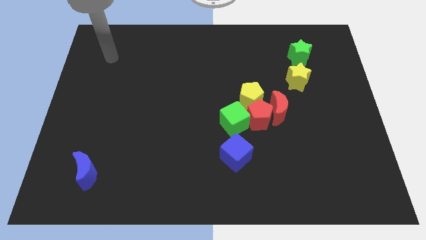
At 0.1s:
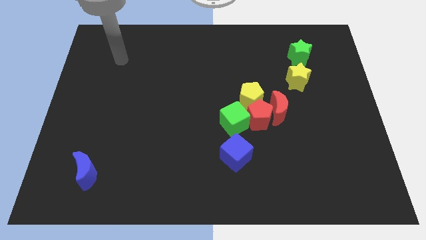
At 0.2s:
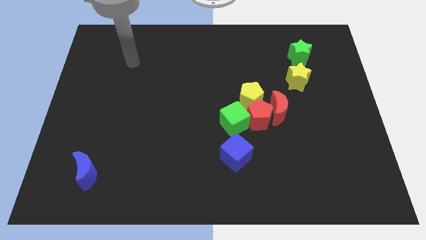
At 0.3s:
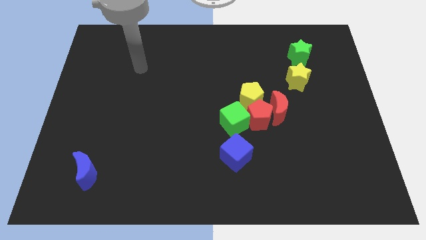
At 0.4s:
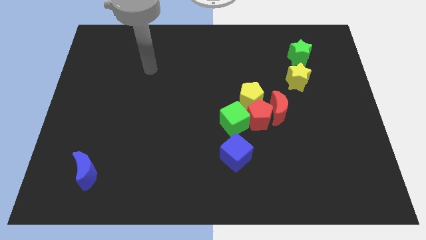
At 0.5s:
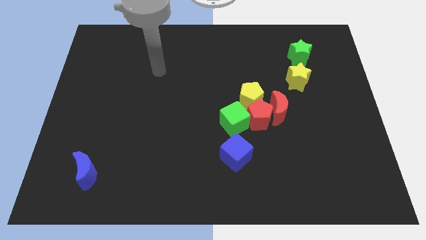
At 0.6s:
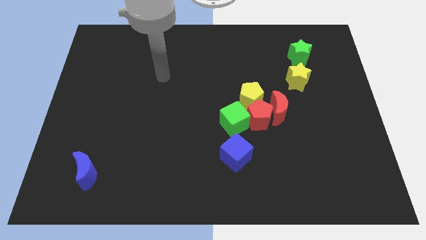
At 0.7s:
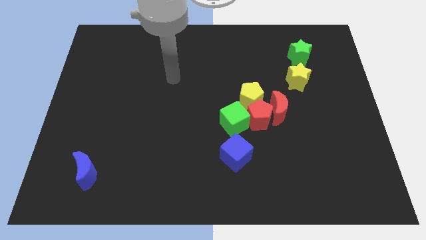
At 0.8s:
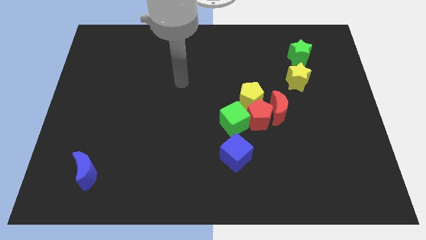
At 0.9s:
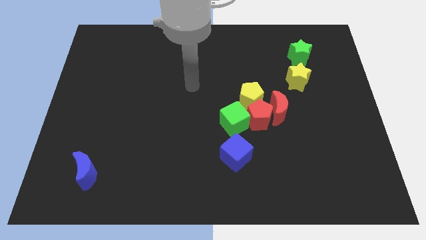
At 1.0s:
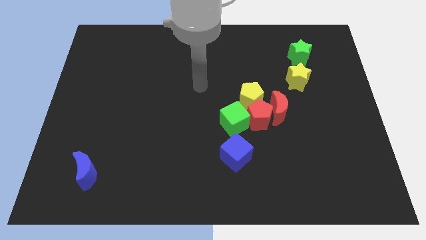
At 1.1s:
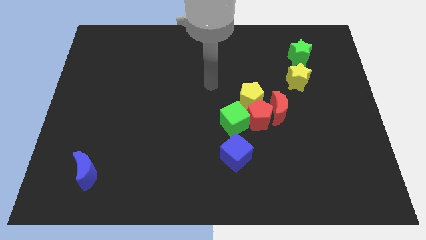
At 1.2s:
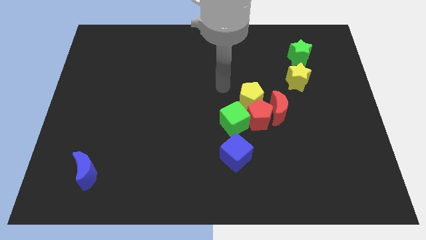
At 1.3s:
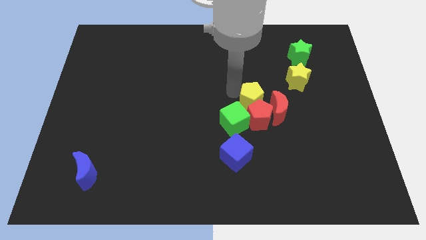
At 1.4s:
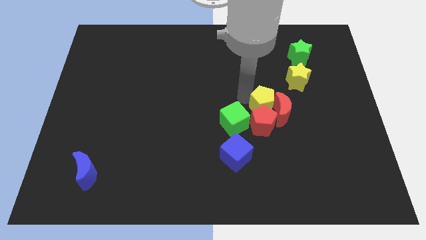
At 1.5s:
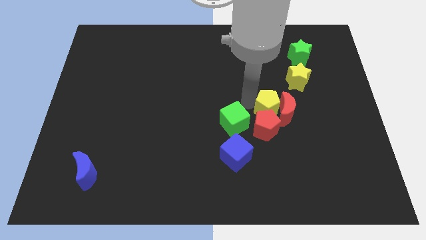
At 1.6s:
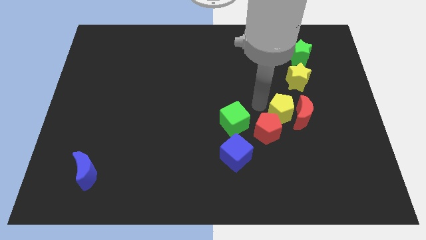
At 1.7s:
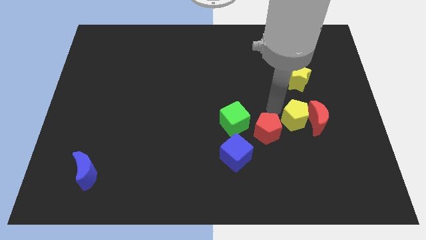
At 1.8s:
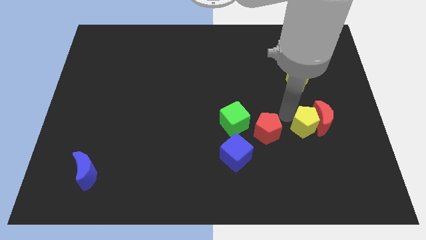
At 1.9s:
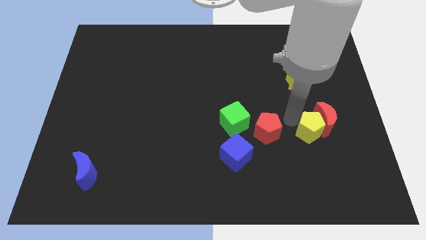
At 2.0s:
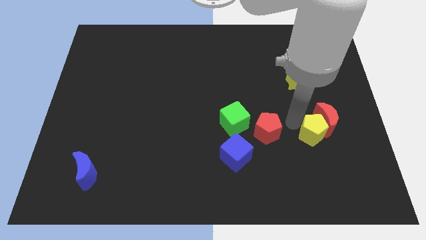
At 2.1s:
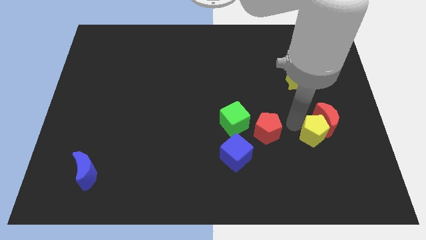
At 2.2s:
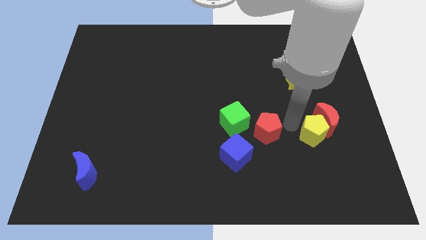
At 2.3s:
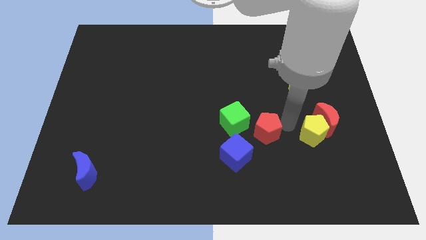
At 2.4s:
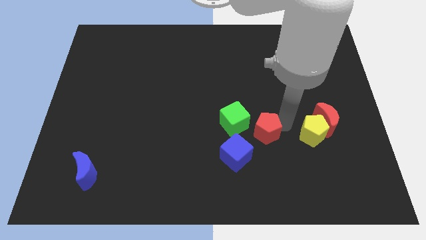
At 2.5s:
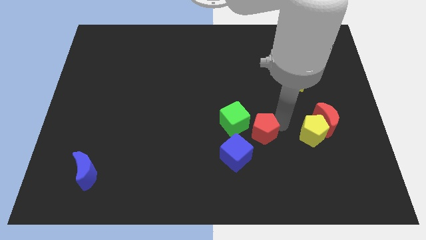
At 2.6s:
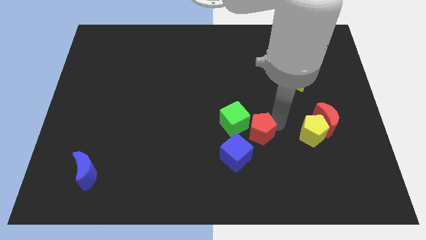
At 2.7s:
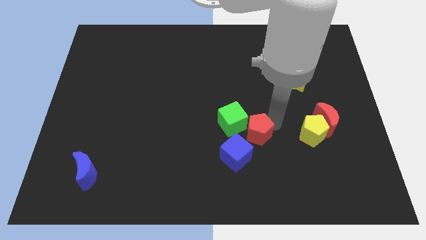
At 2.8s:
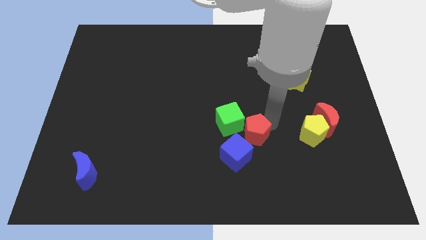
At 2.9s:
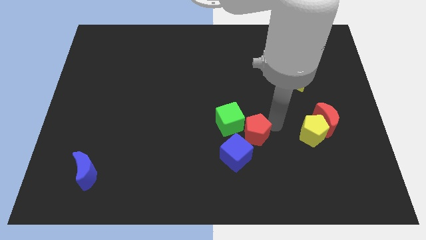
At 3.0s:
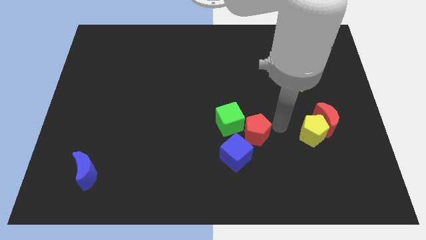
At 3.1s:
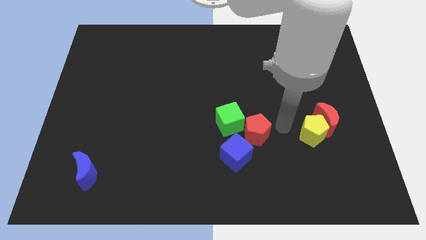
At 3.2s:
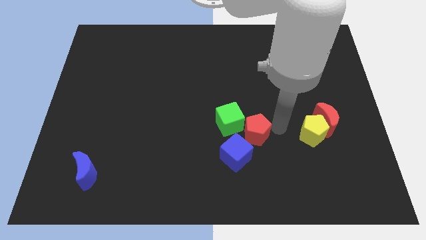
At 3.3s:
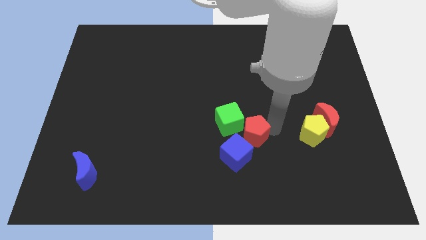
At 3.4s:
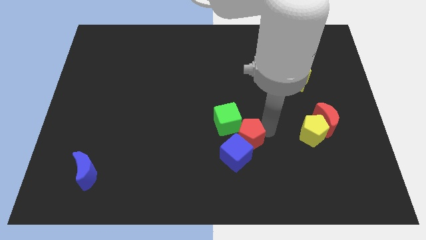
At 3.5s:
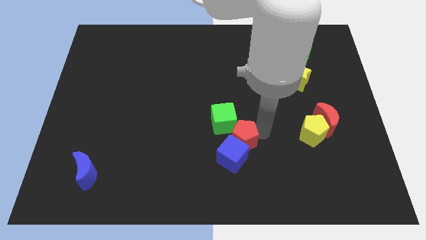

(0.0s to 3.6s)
separate the red pentagon from the group of blocks

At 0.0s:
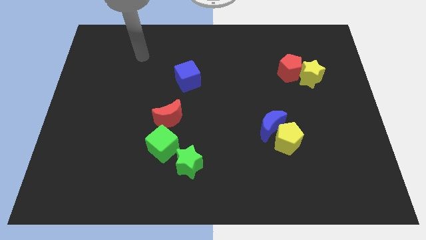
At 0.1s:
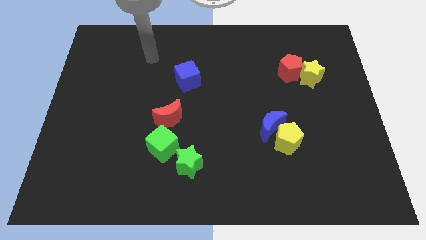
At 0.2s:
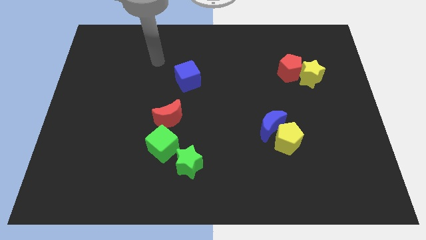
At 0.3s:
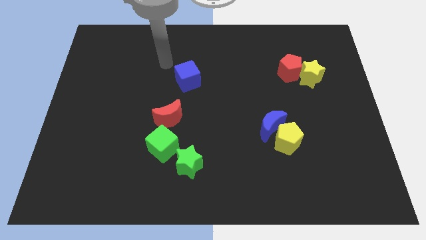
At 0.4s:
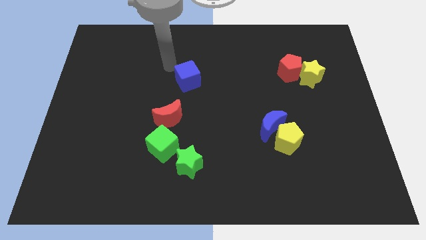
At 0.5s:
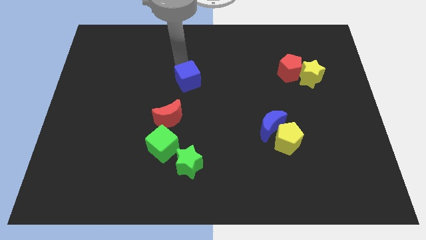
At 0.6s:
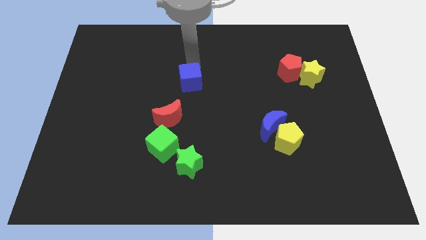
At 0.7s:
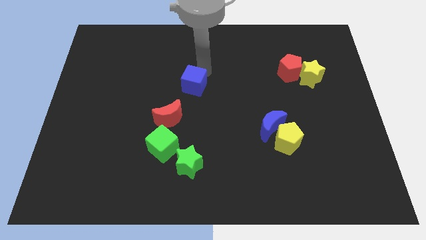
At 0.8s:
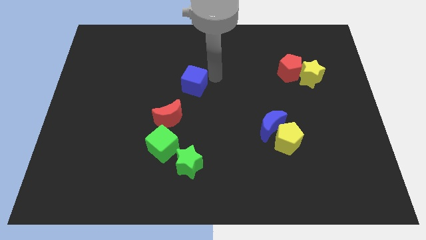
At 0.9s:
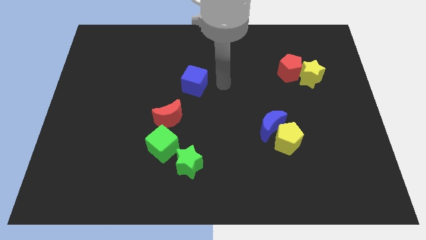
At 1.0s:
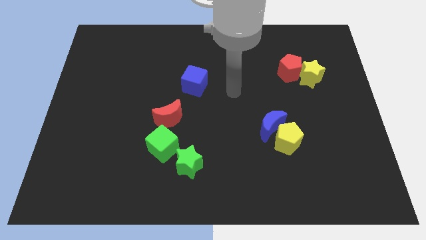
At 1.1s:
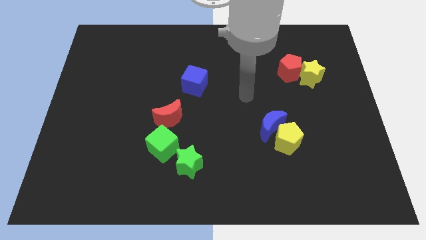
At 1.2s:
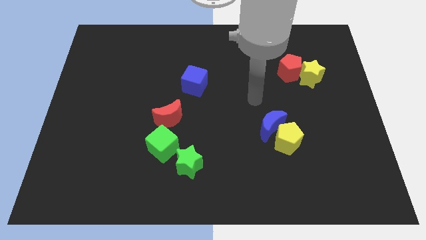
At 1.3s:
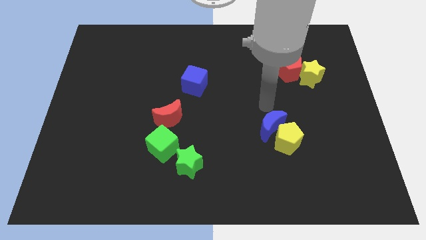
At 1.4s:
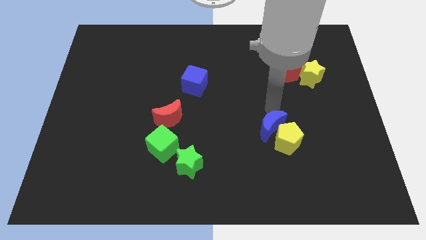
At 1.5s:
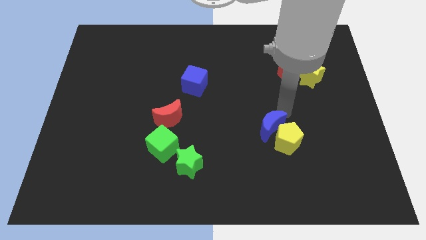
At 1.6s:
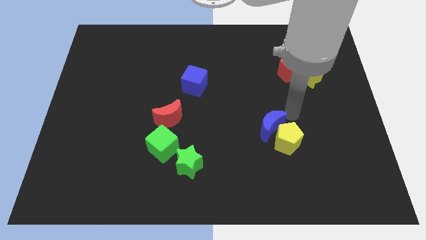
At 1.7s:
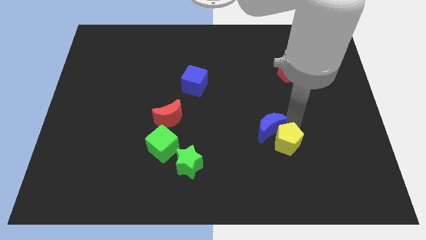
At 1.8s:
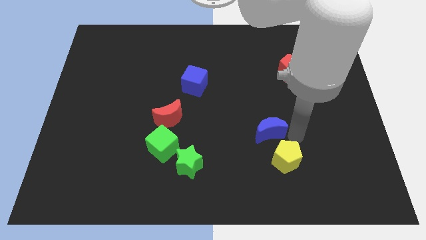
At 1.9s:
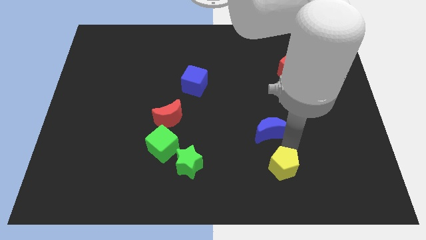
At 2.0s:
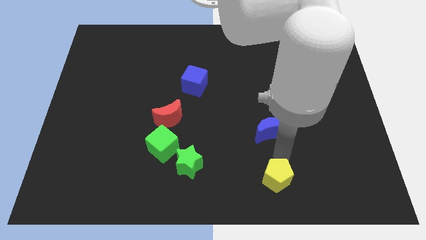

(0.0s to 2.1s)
move the blue moon away from the yellow pentagon

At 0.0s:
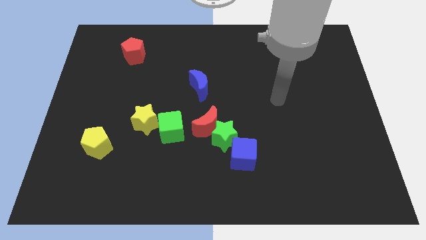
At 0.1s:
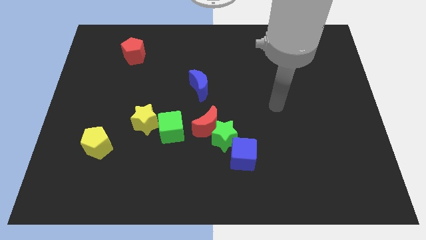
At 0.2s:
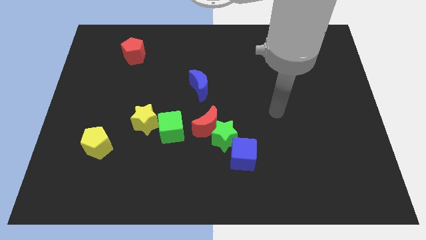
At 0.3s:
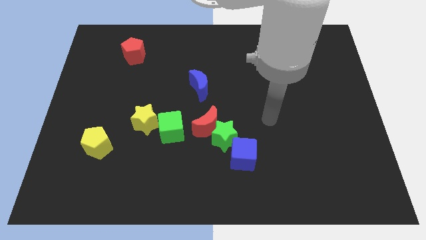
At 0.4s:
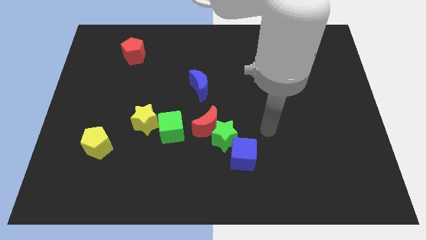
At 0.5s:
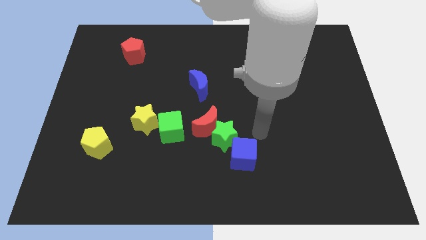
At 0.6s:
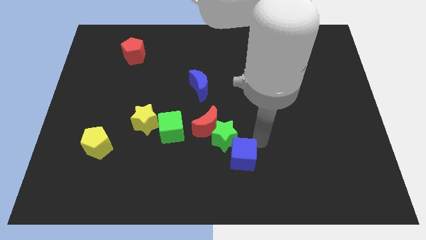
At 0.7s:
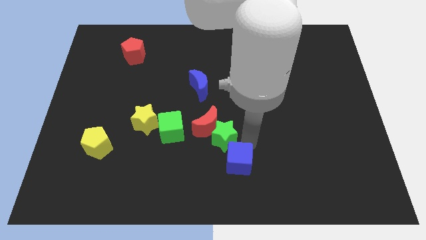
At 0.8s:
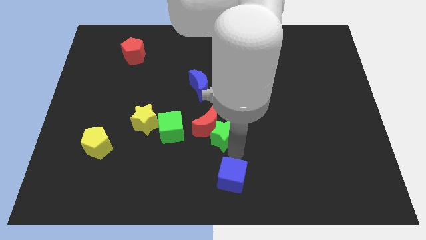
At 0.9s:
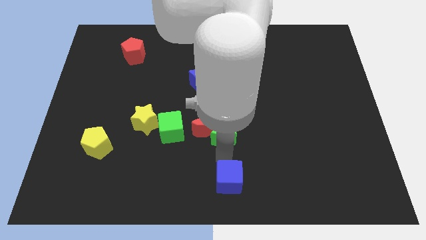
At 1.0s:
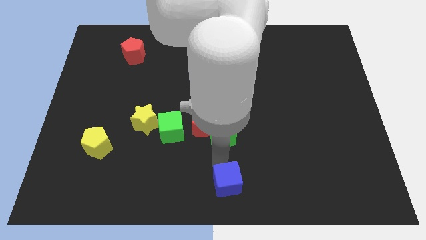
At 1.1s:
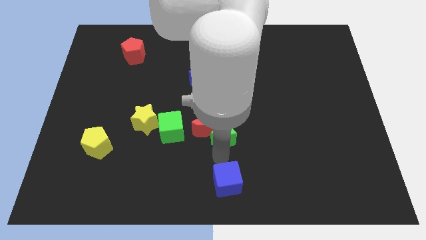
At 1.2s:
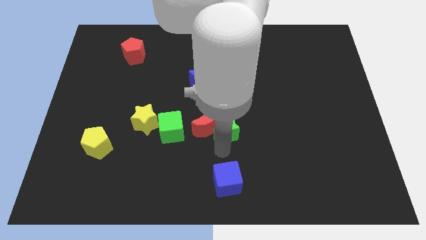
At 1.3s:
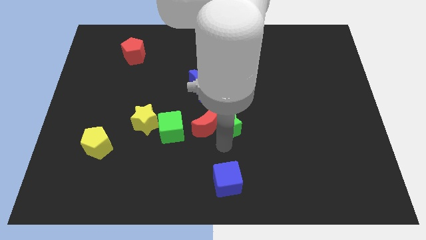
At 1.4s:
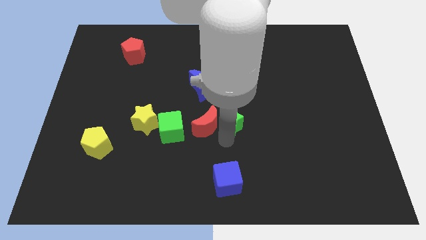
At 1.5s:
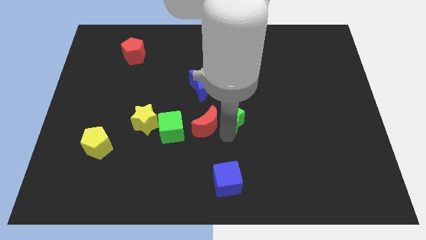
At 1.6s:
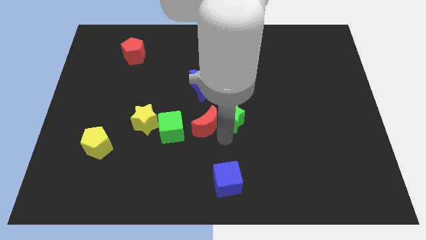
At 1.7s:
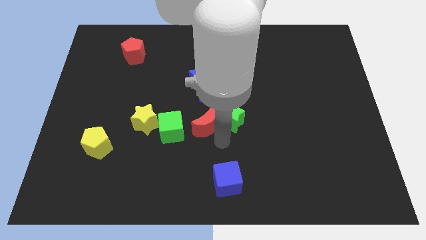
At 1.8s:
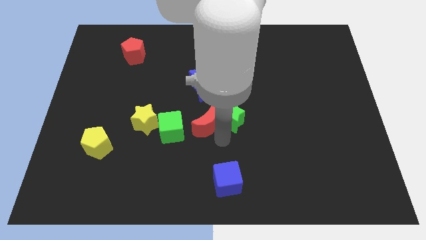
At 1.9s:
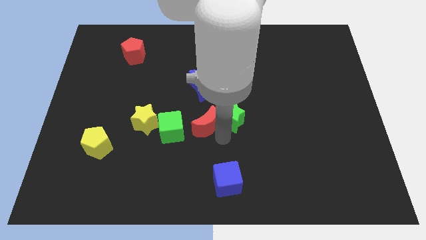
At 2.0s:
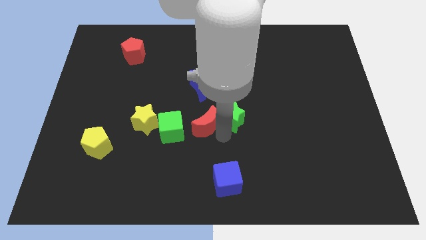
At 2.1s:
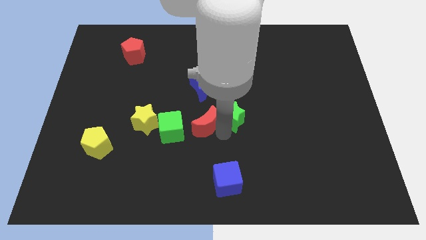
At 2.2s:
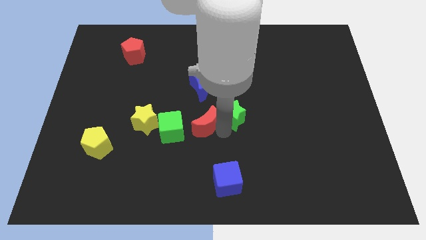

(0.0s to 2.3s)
pull the green star apart from the red moon and blue cube

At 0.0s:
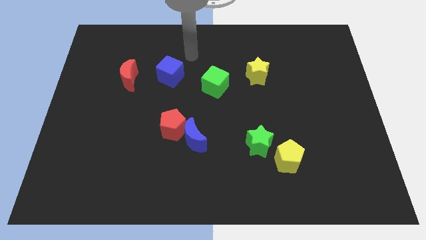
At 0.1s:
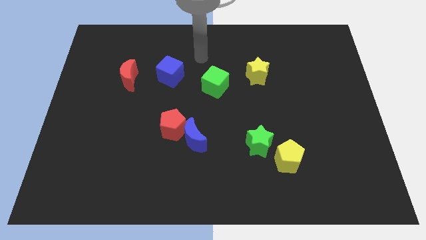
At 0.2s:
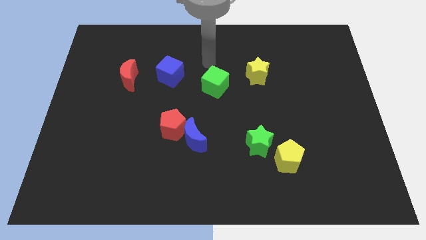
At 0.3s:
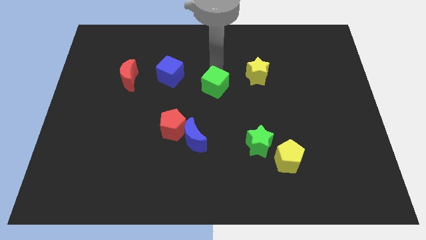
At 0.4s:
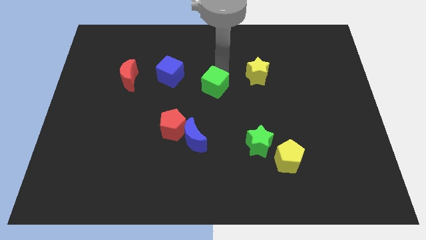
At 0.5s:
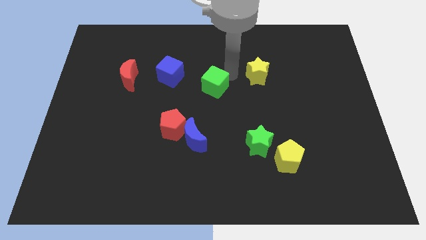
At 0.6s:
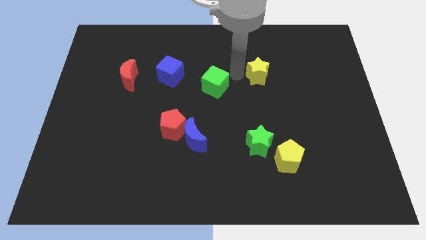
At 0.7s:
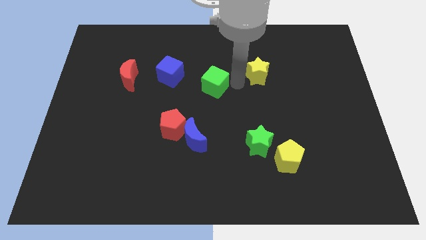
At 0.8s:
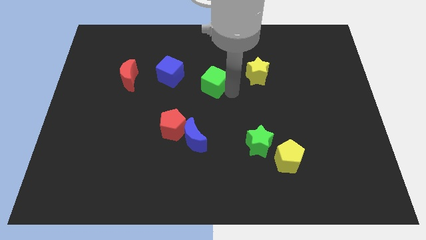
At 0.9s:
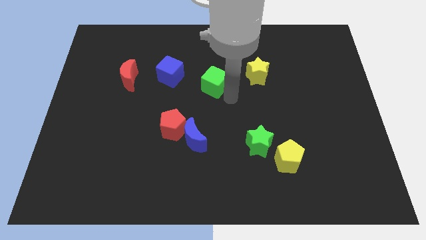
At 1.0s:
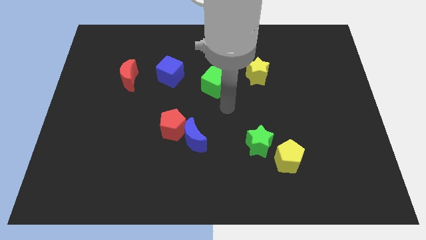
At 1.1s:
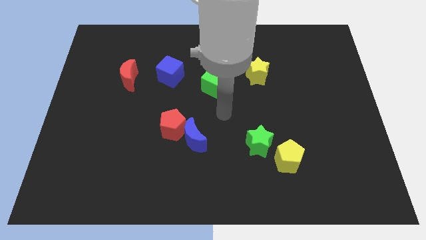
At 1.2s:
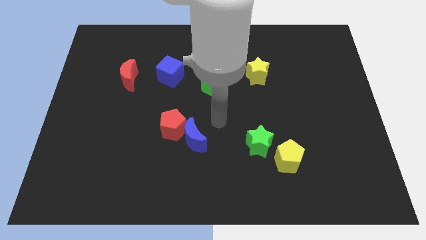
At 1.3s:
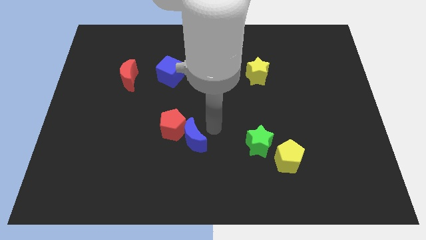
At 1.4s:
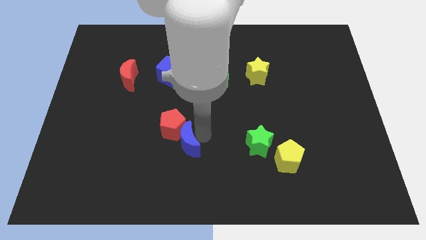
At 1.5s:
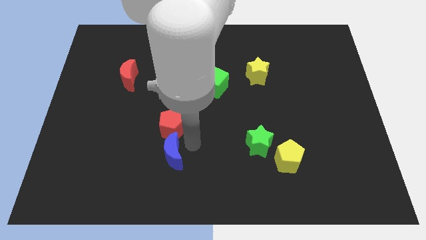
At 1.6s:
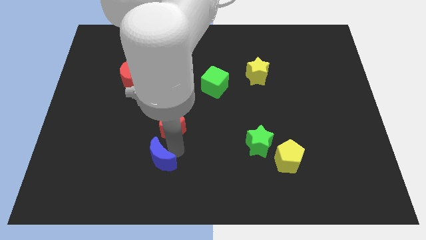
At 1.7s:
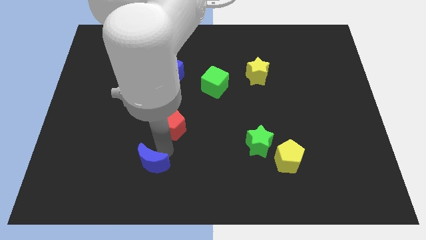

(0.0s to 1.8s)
pull the red pentagon apart from the blue moon
